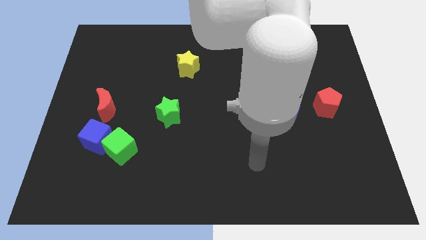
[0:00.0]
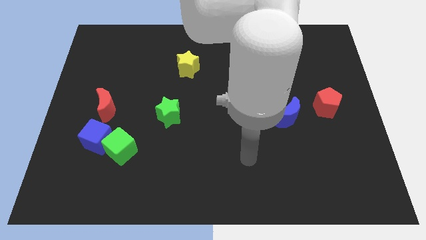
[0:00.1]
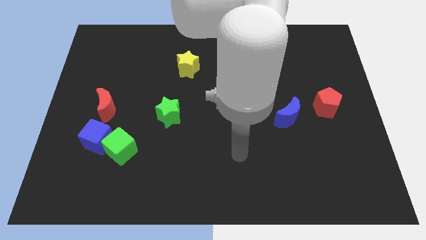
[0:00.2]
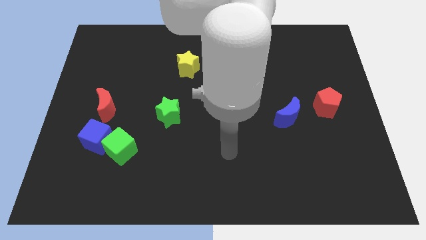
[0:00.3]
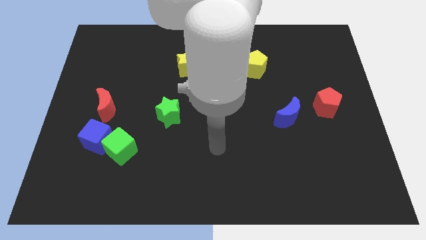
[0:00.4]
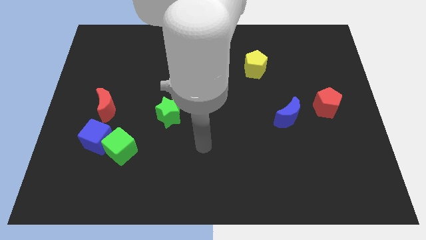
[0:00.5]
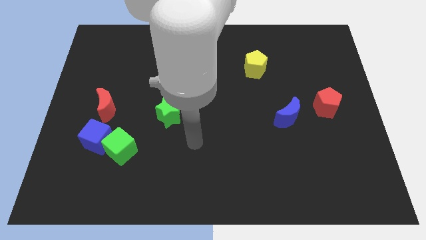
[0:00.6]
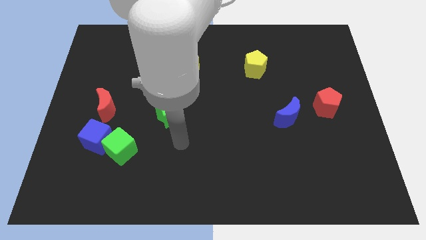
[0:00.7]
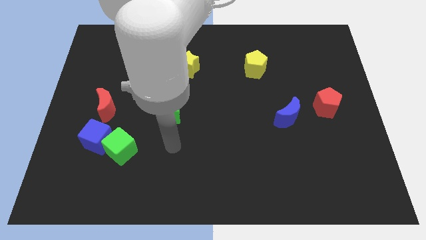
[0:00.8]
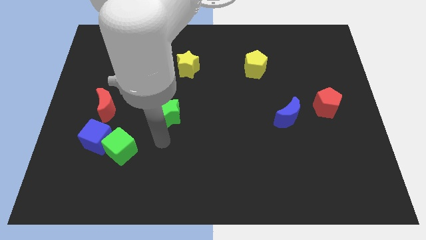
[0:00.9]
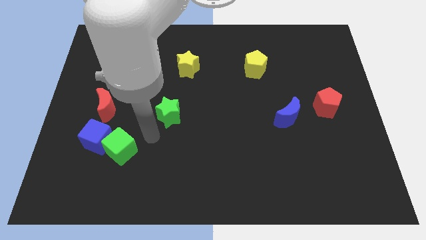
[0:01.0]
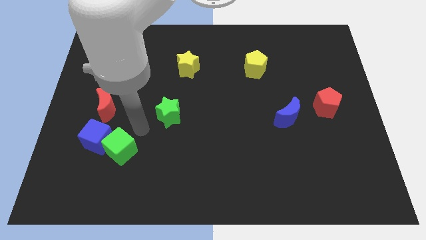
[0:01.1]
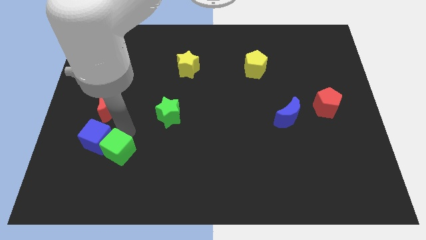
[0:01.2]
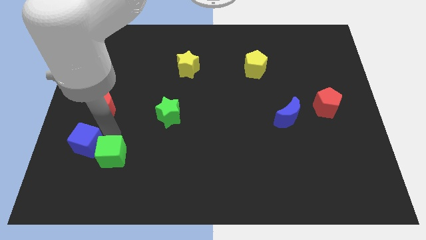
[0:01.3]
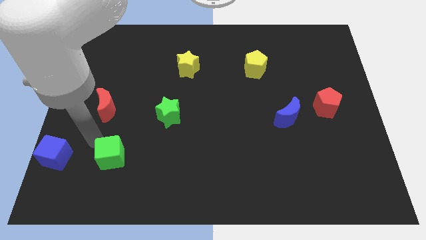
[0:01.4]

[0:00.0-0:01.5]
pull the green cube apart from the blue cube

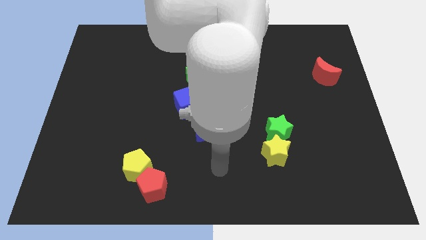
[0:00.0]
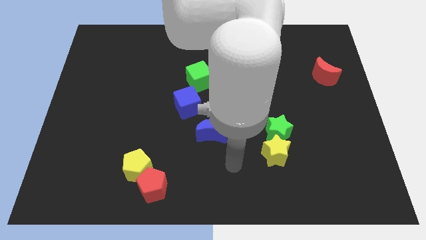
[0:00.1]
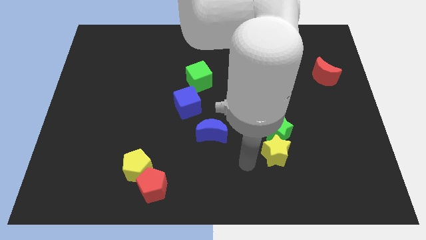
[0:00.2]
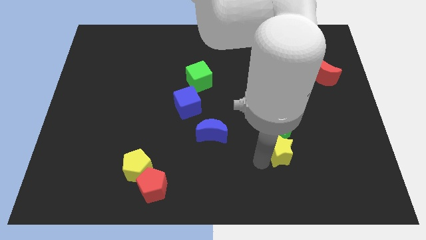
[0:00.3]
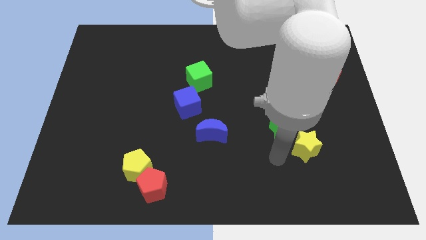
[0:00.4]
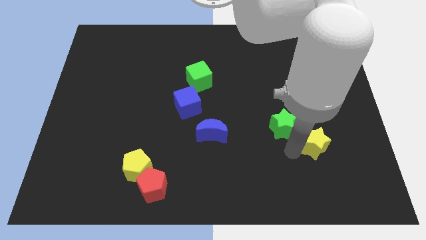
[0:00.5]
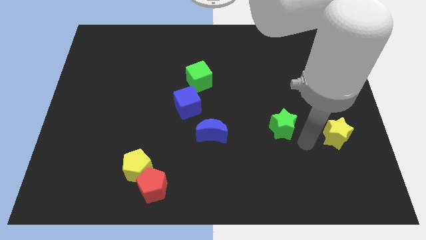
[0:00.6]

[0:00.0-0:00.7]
separate the green star from the yellow star

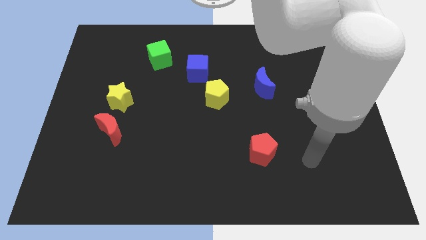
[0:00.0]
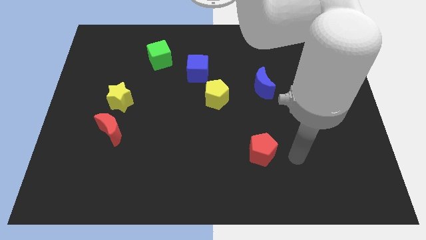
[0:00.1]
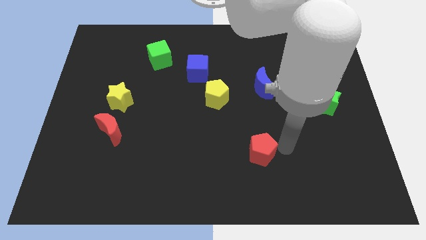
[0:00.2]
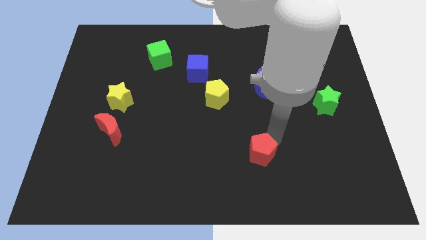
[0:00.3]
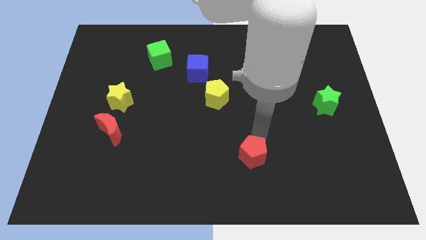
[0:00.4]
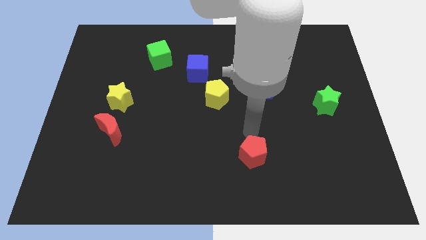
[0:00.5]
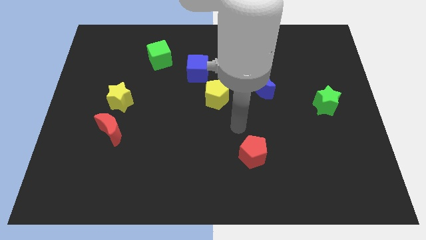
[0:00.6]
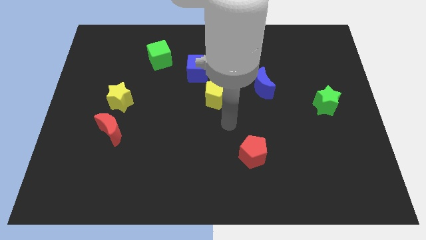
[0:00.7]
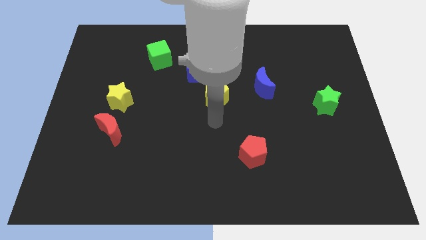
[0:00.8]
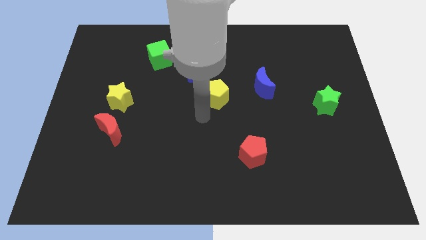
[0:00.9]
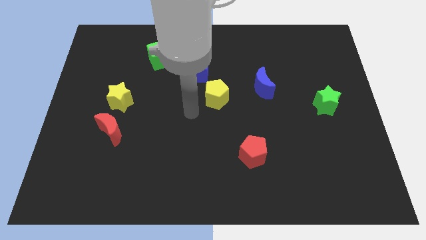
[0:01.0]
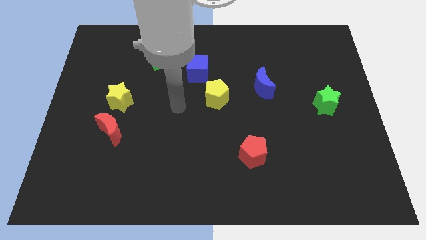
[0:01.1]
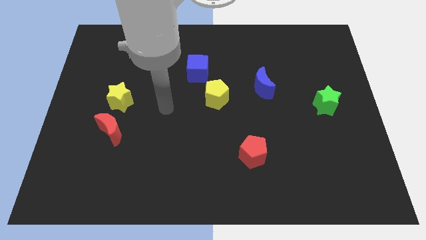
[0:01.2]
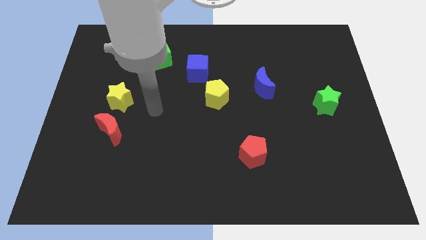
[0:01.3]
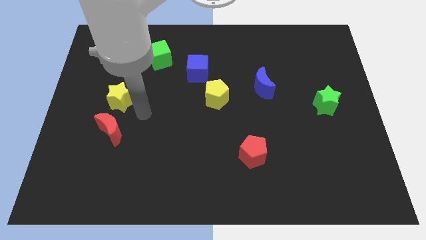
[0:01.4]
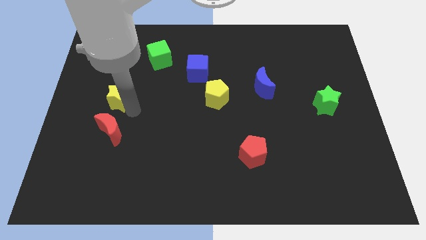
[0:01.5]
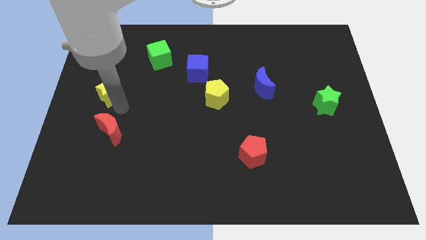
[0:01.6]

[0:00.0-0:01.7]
pull the red moon apart from the yellow star

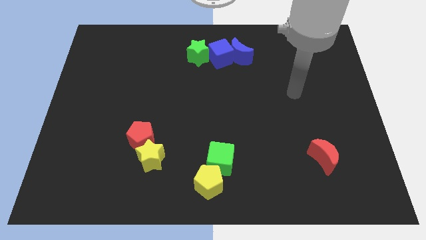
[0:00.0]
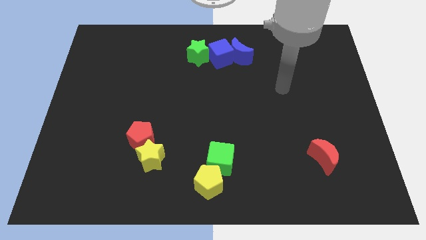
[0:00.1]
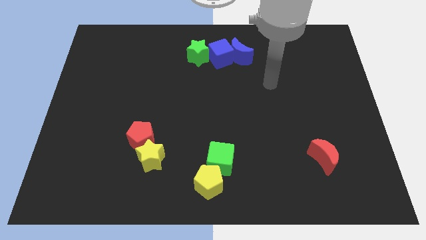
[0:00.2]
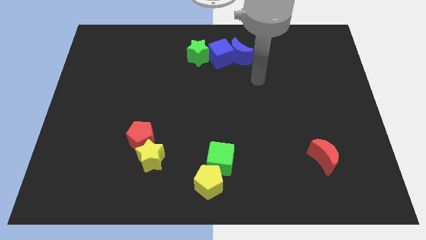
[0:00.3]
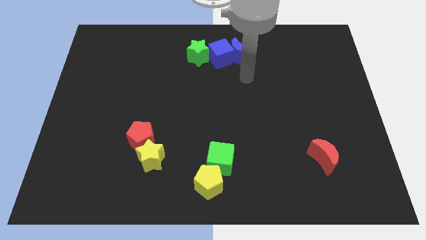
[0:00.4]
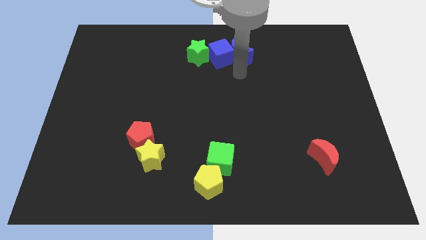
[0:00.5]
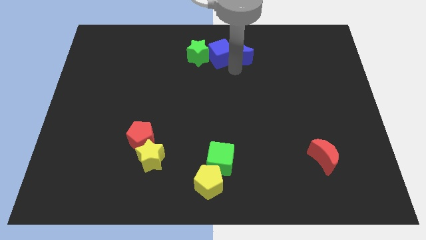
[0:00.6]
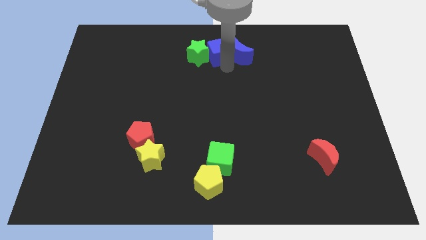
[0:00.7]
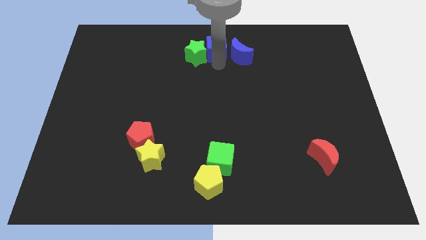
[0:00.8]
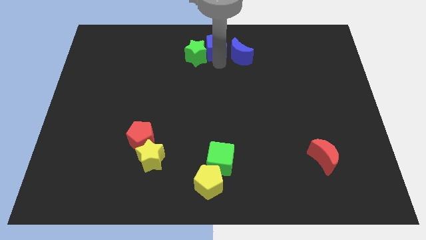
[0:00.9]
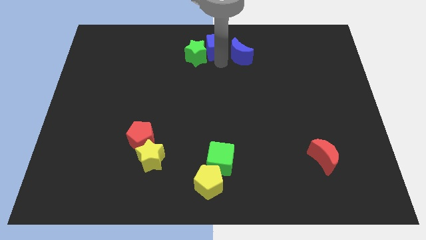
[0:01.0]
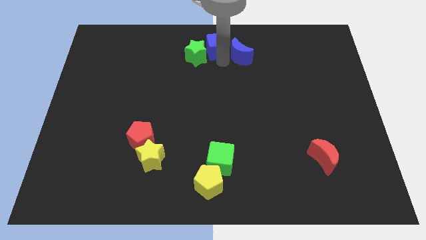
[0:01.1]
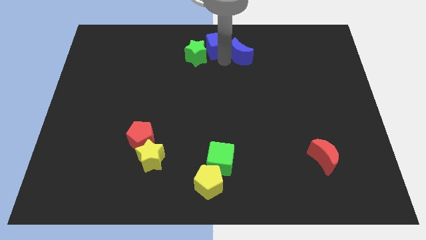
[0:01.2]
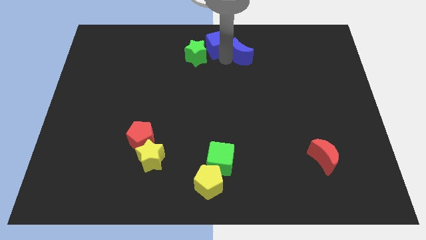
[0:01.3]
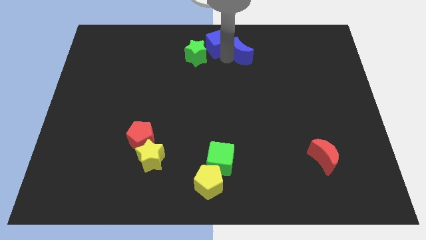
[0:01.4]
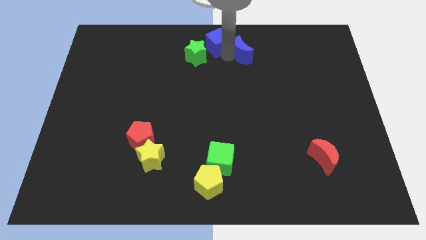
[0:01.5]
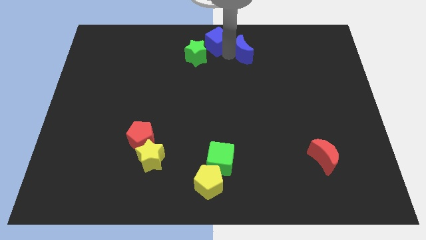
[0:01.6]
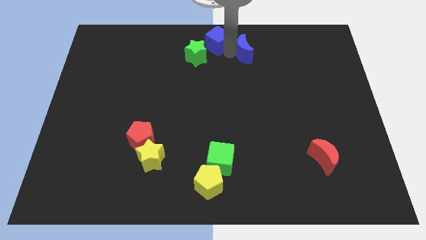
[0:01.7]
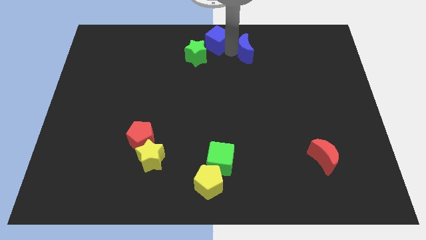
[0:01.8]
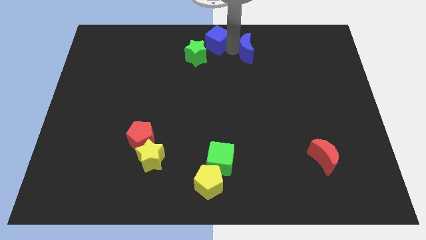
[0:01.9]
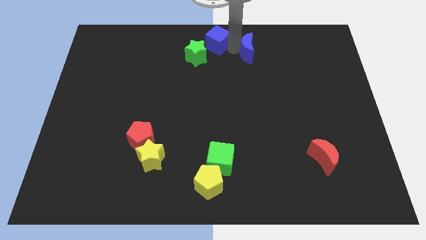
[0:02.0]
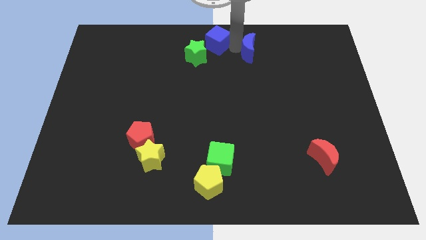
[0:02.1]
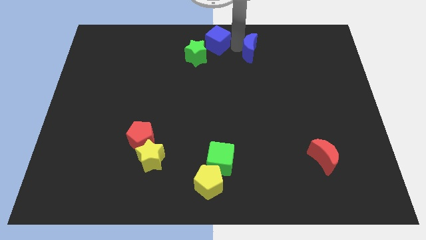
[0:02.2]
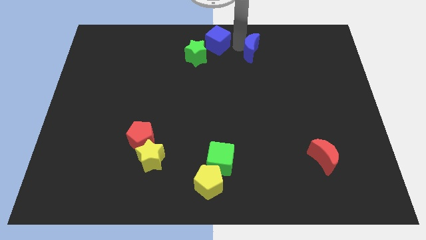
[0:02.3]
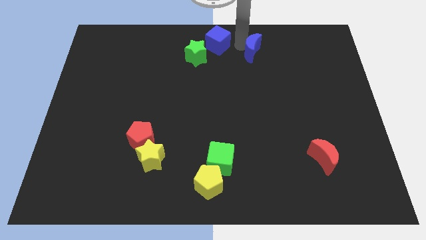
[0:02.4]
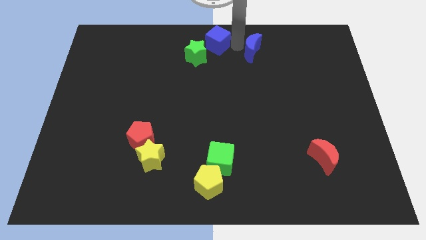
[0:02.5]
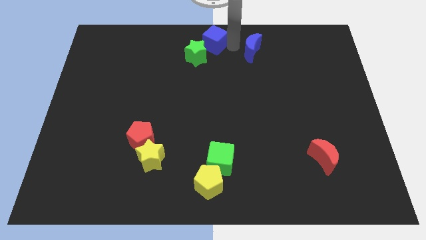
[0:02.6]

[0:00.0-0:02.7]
separate the blue moon from the blue cube

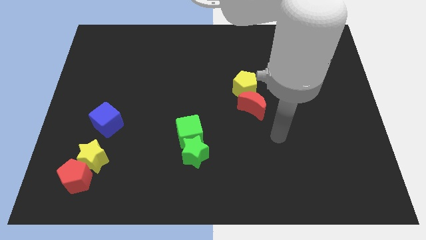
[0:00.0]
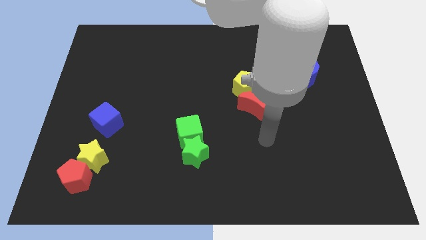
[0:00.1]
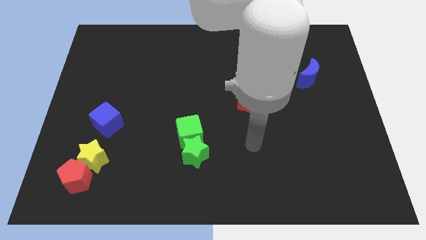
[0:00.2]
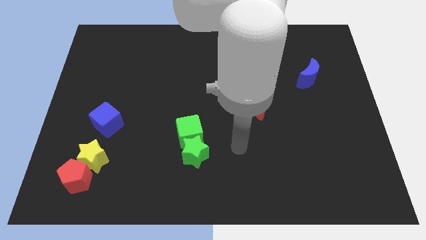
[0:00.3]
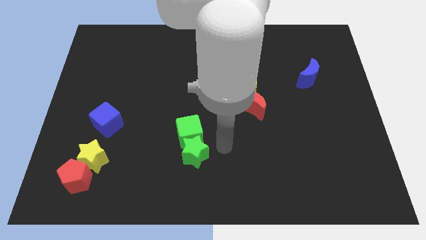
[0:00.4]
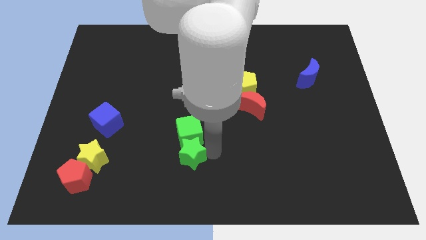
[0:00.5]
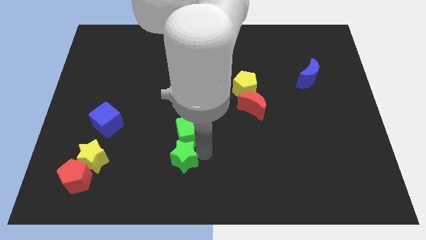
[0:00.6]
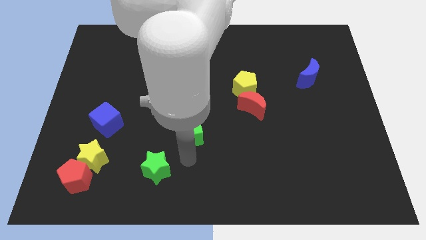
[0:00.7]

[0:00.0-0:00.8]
pull the green cube apart from the green star

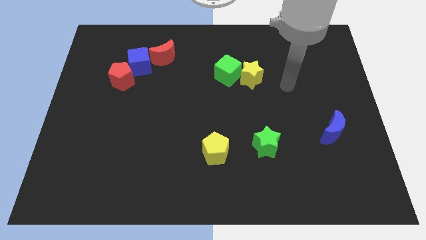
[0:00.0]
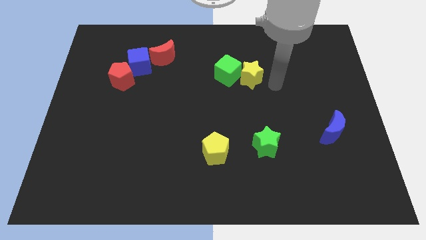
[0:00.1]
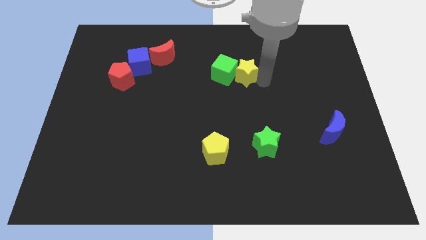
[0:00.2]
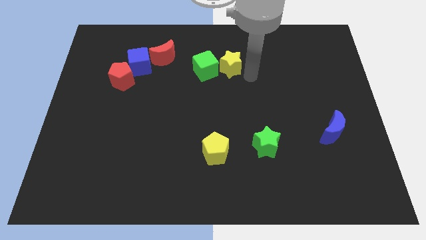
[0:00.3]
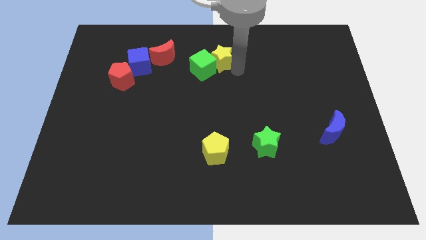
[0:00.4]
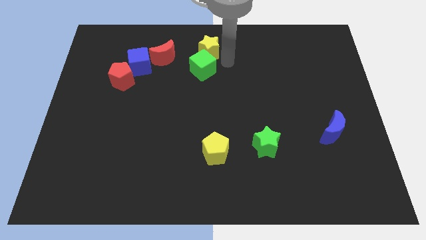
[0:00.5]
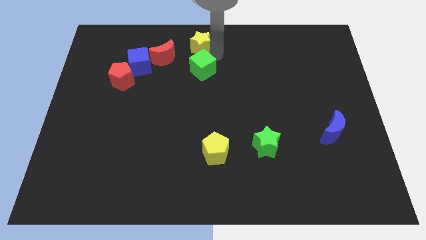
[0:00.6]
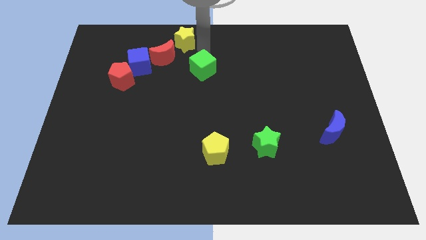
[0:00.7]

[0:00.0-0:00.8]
move the green cube away from the yellow star

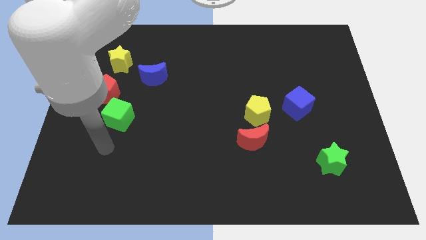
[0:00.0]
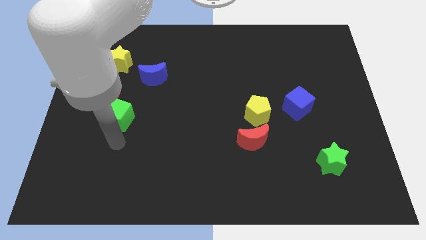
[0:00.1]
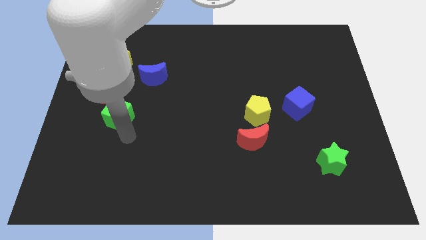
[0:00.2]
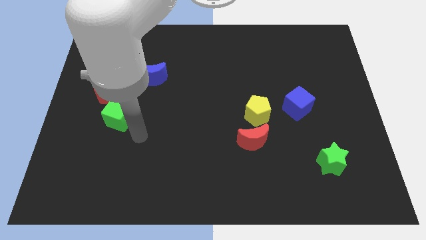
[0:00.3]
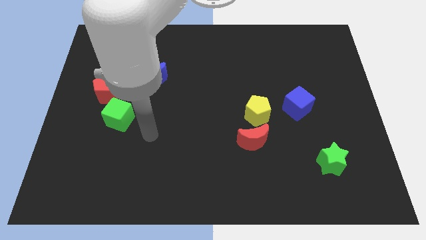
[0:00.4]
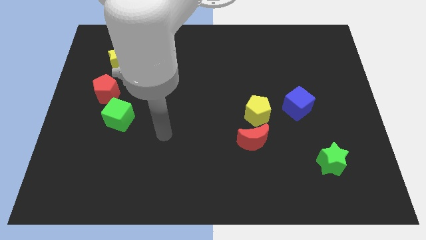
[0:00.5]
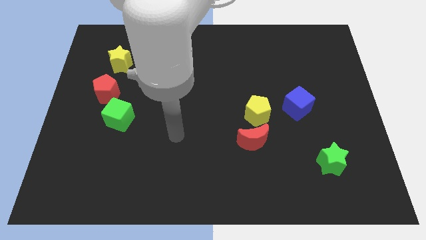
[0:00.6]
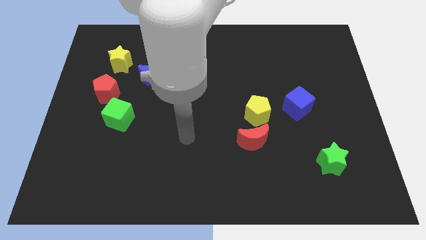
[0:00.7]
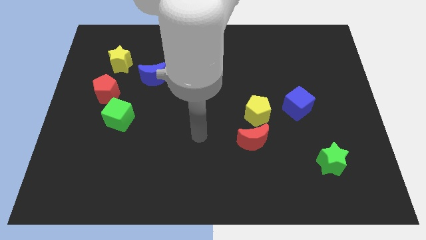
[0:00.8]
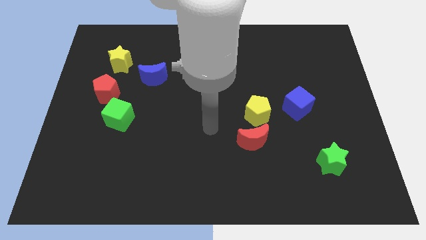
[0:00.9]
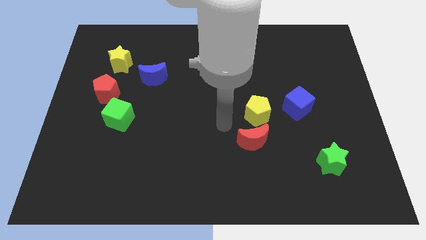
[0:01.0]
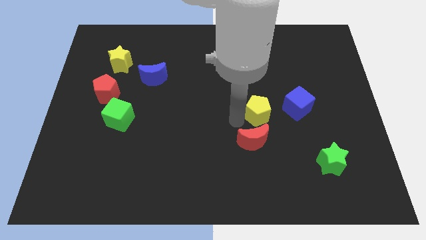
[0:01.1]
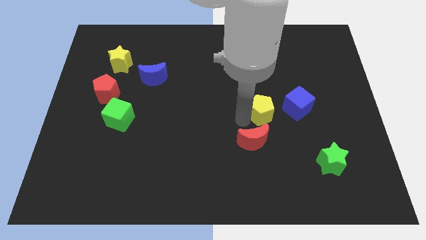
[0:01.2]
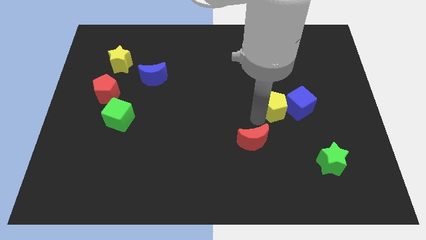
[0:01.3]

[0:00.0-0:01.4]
separate the red moon from the yellow pentagon
